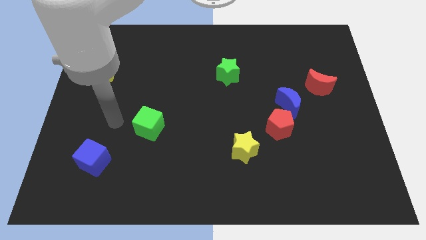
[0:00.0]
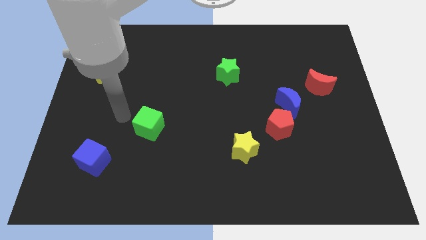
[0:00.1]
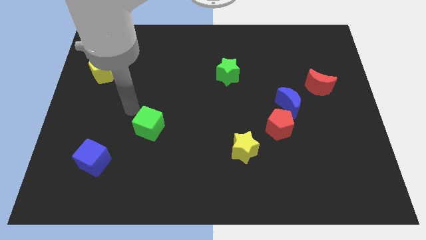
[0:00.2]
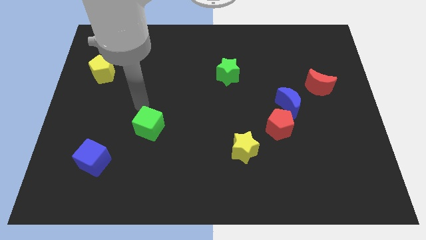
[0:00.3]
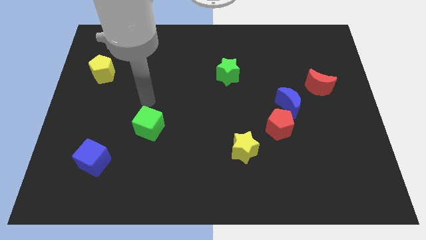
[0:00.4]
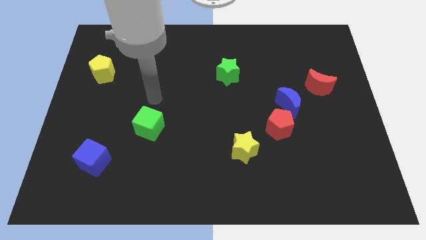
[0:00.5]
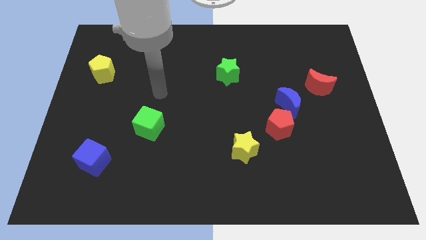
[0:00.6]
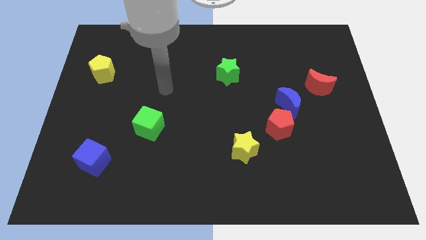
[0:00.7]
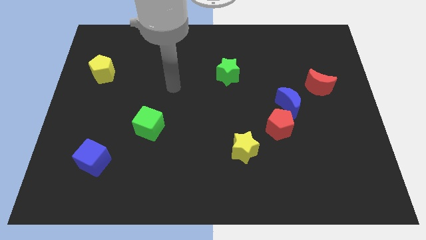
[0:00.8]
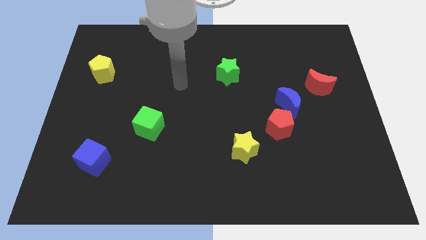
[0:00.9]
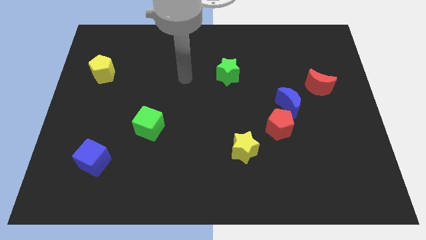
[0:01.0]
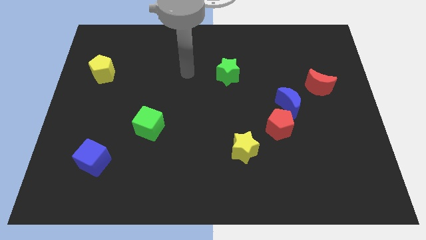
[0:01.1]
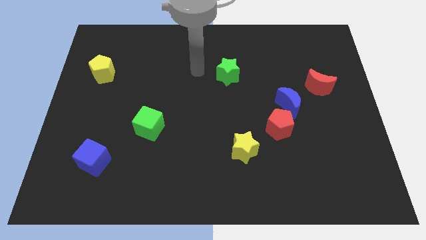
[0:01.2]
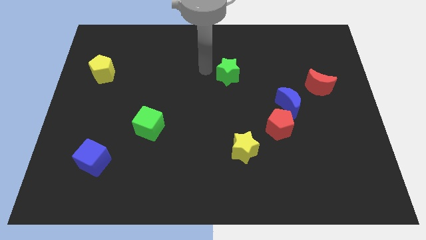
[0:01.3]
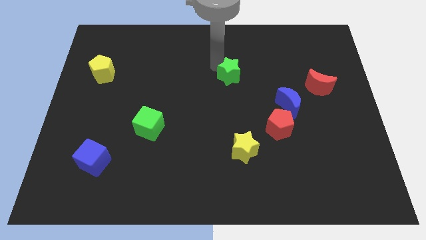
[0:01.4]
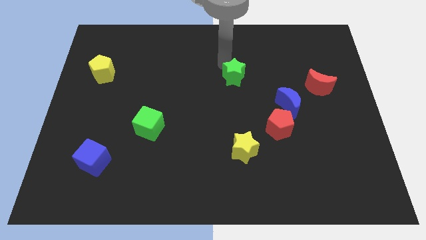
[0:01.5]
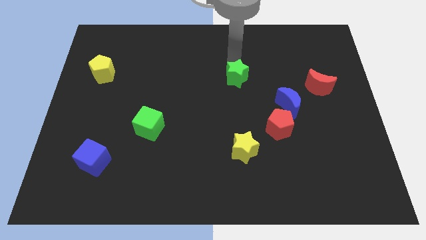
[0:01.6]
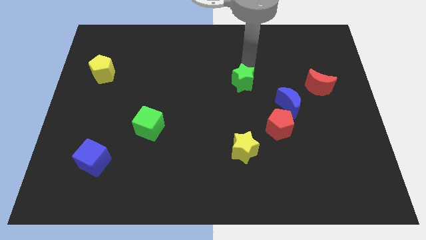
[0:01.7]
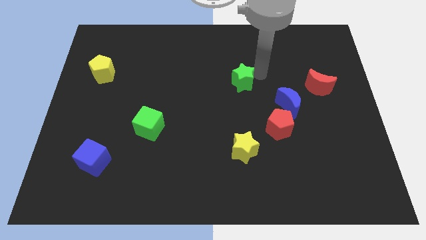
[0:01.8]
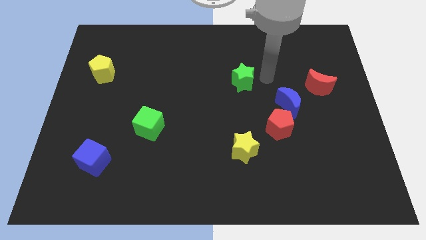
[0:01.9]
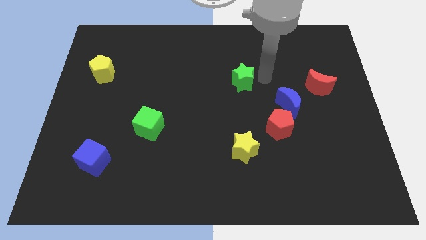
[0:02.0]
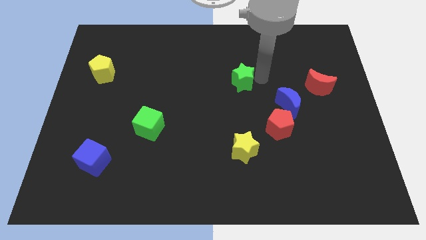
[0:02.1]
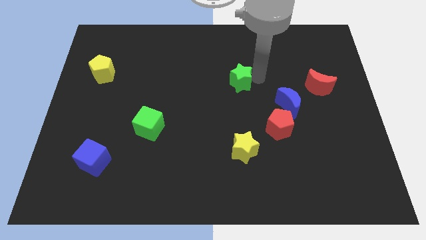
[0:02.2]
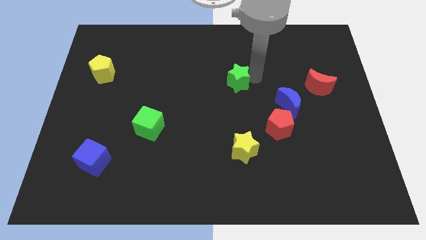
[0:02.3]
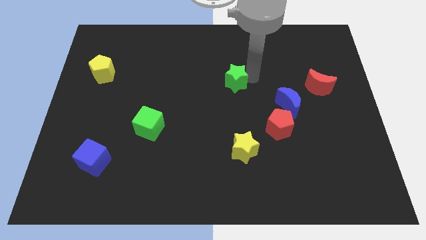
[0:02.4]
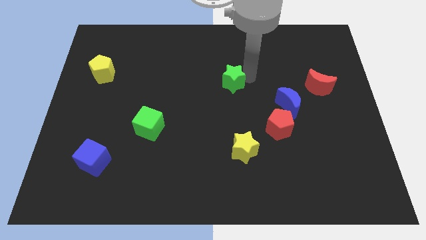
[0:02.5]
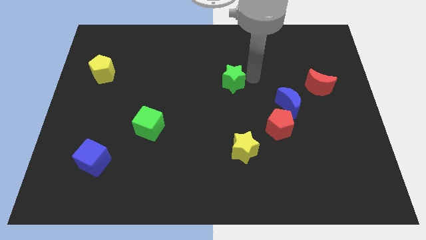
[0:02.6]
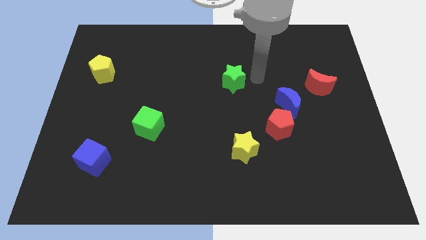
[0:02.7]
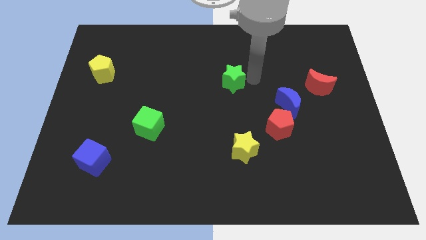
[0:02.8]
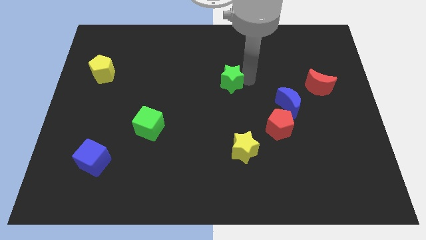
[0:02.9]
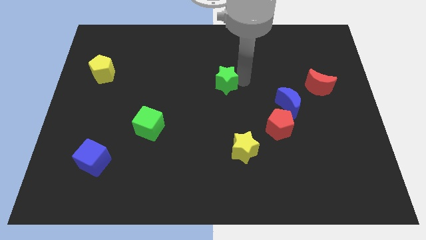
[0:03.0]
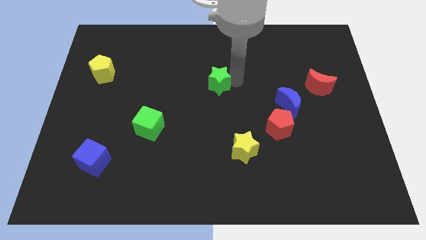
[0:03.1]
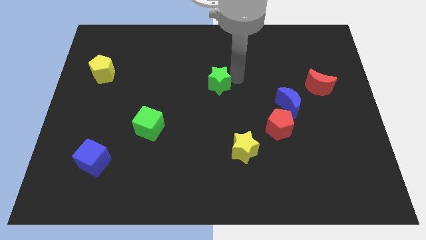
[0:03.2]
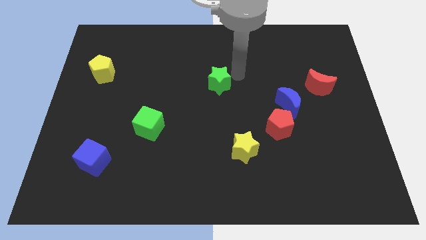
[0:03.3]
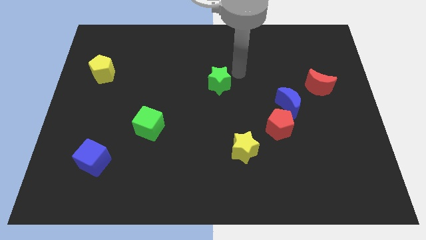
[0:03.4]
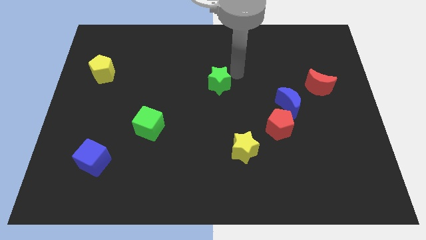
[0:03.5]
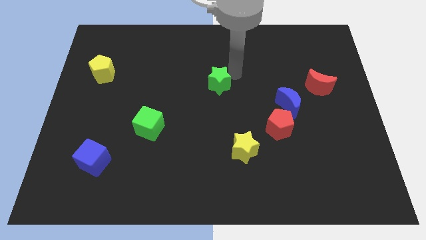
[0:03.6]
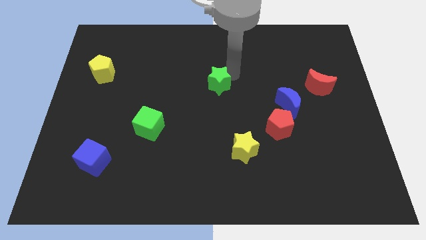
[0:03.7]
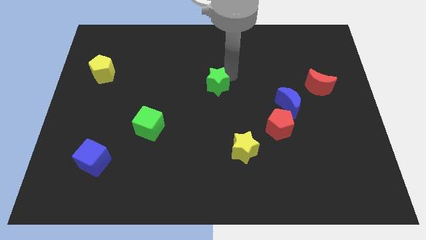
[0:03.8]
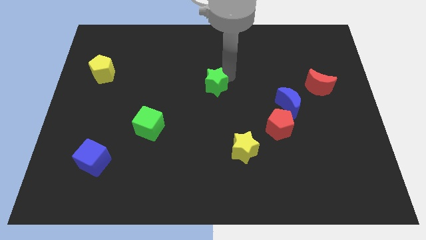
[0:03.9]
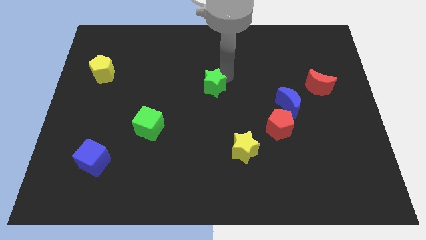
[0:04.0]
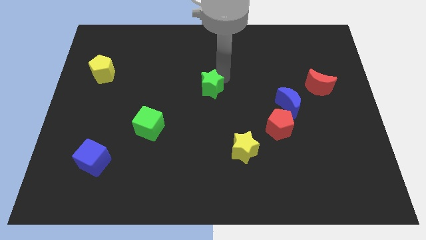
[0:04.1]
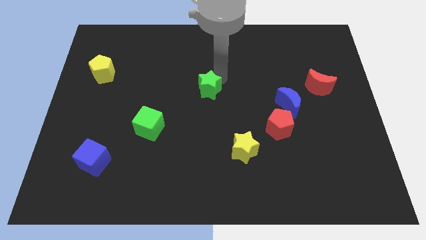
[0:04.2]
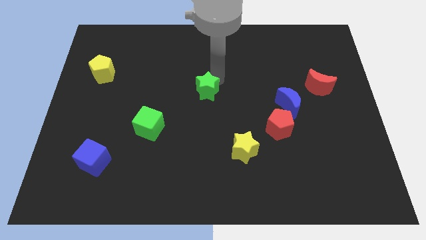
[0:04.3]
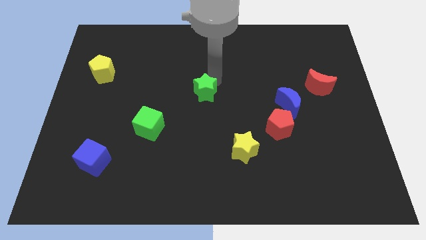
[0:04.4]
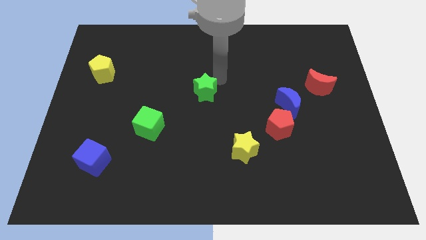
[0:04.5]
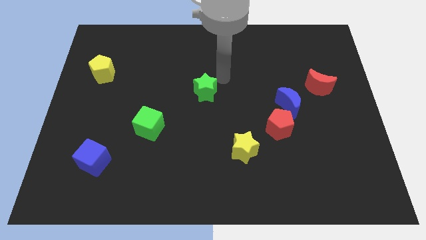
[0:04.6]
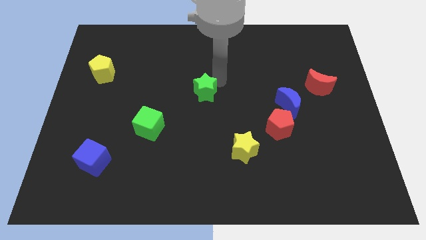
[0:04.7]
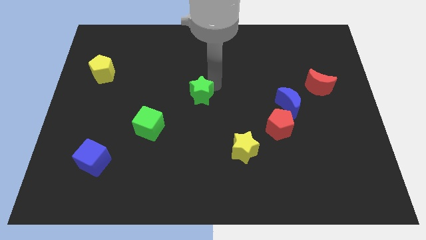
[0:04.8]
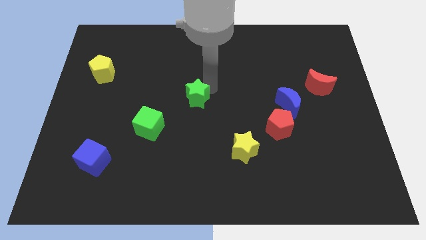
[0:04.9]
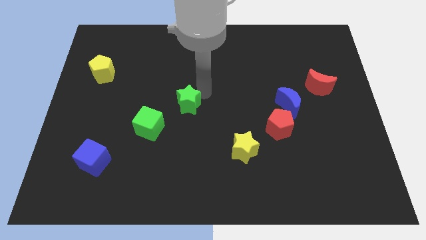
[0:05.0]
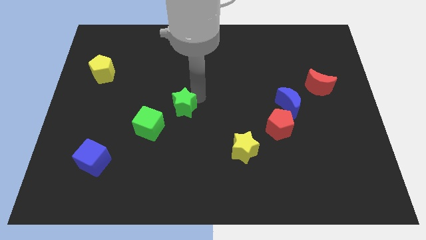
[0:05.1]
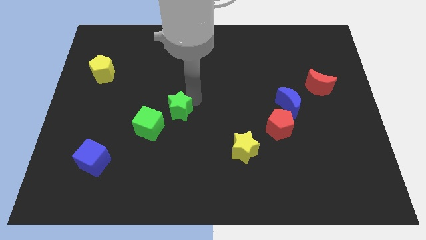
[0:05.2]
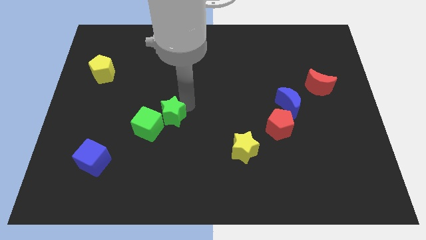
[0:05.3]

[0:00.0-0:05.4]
move the green star towards the green cube

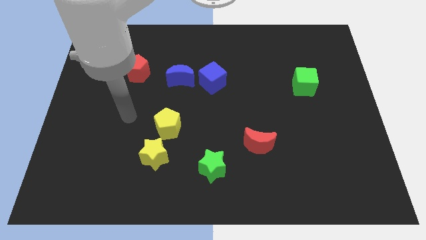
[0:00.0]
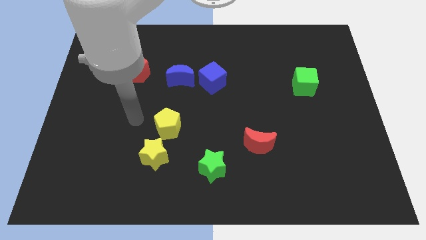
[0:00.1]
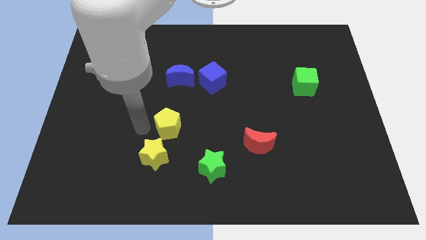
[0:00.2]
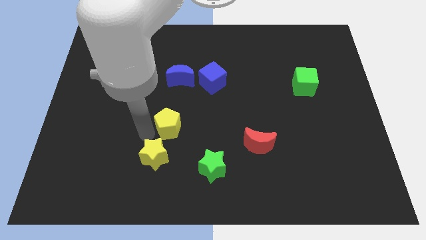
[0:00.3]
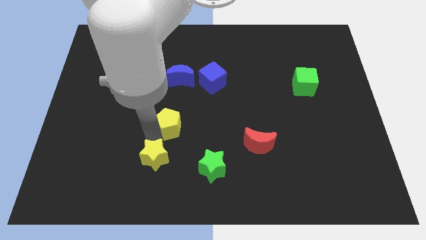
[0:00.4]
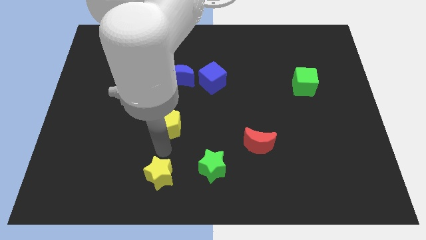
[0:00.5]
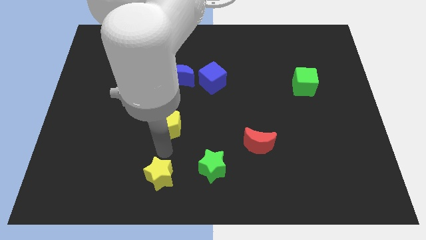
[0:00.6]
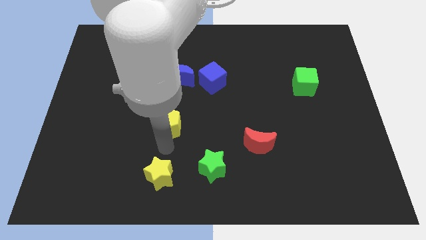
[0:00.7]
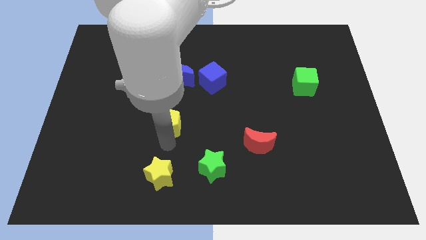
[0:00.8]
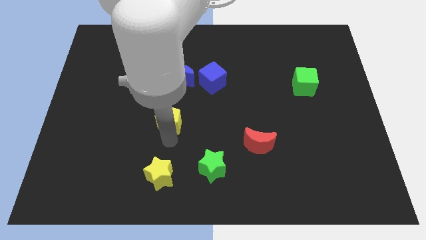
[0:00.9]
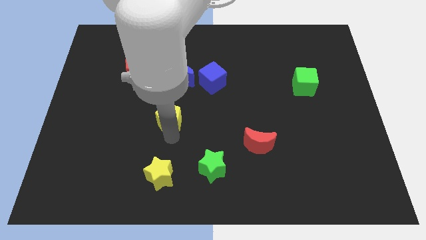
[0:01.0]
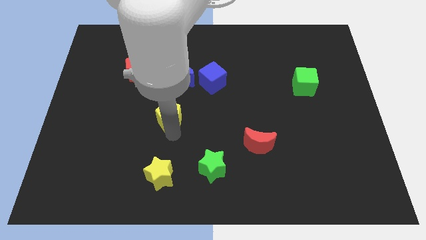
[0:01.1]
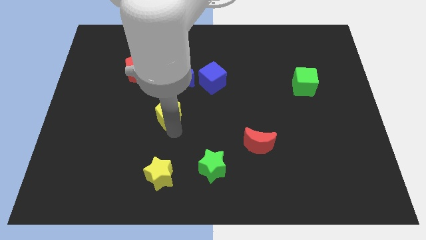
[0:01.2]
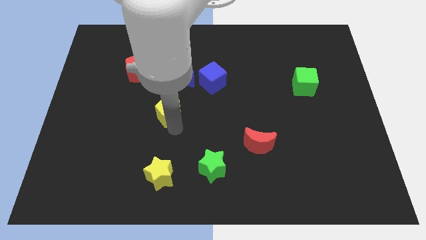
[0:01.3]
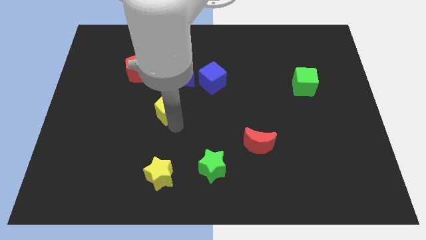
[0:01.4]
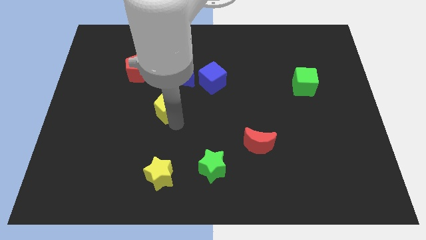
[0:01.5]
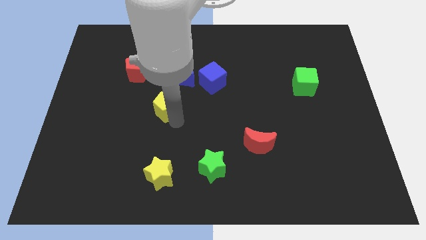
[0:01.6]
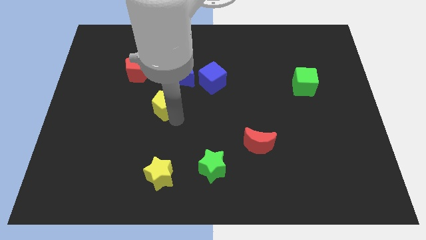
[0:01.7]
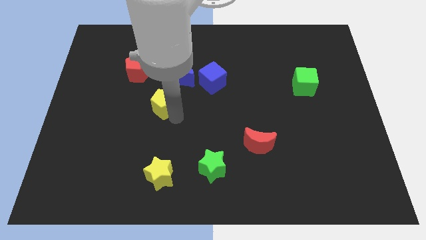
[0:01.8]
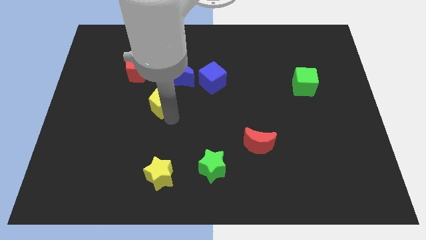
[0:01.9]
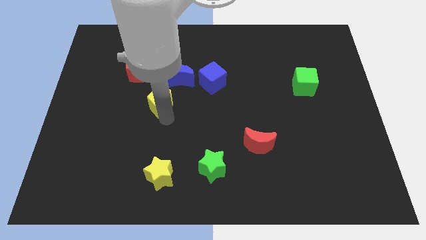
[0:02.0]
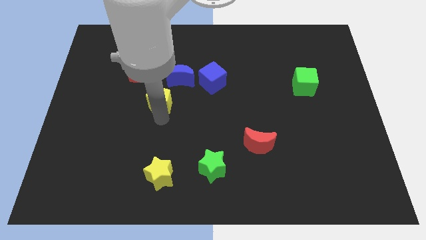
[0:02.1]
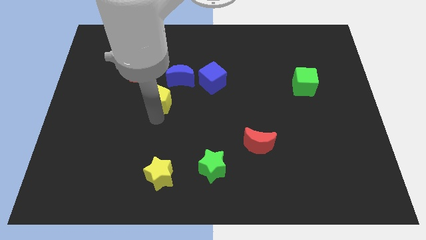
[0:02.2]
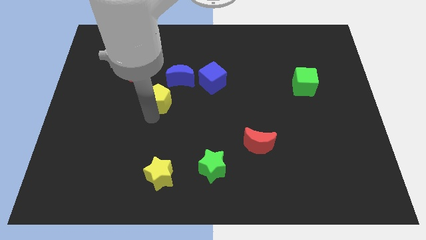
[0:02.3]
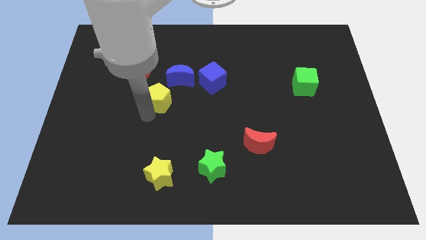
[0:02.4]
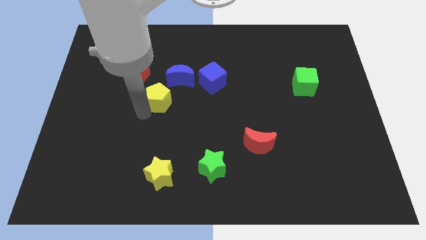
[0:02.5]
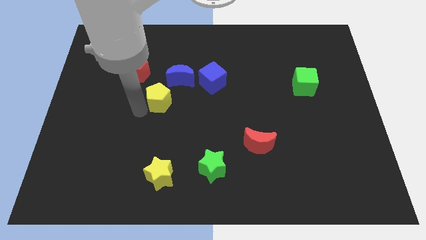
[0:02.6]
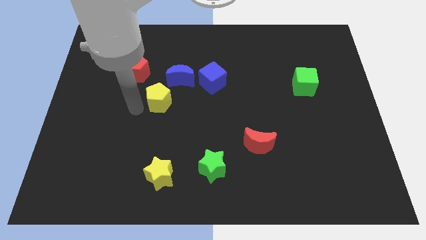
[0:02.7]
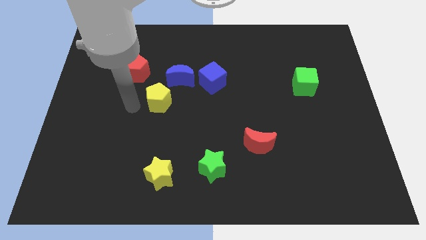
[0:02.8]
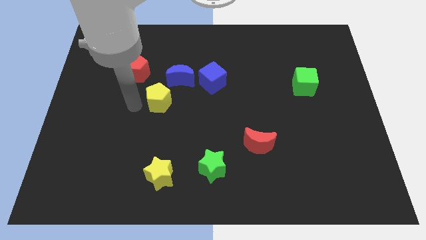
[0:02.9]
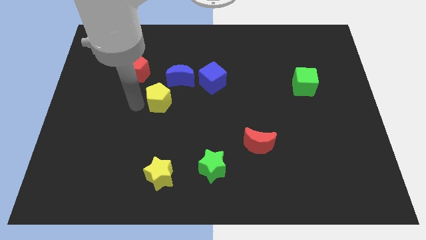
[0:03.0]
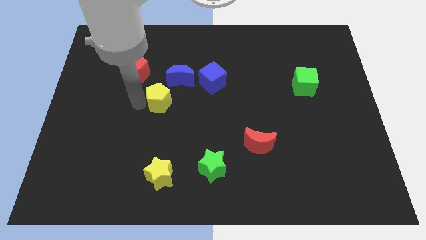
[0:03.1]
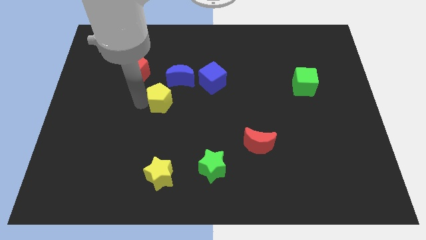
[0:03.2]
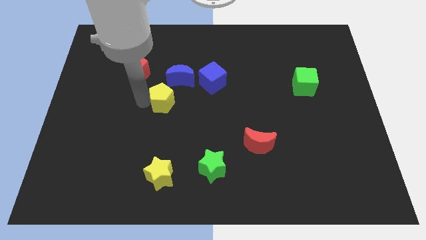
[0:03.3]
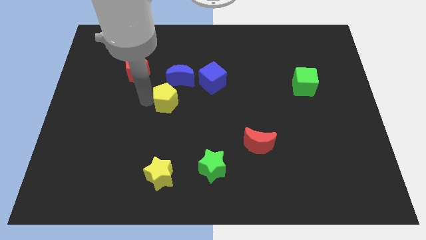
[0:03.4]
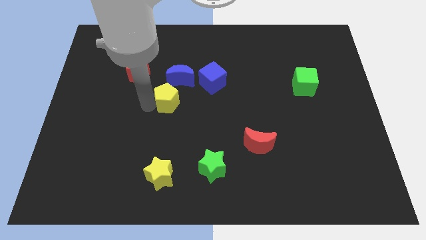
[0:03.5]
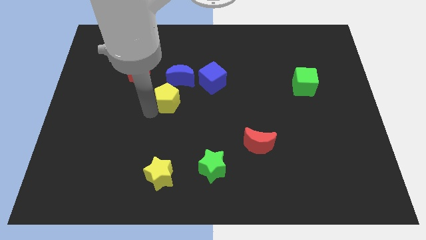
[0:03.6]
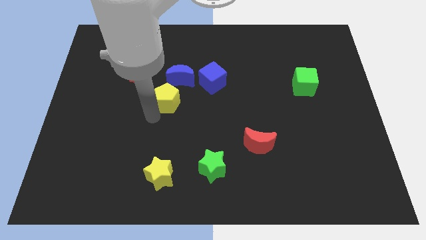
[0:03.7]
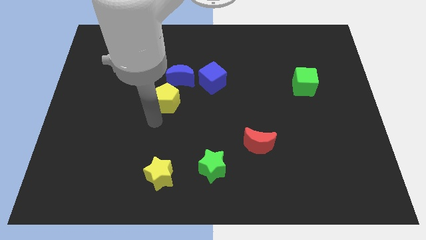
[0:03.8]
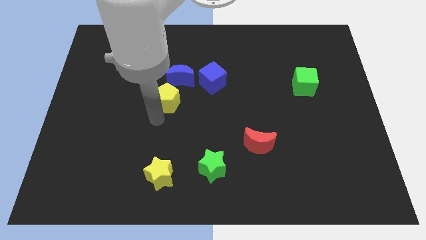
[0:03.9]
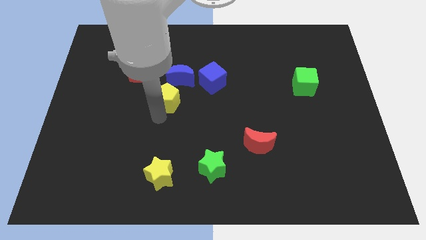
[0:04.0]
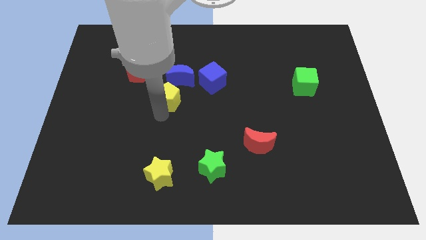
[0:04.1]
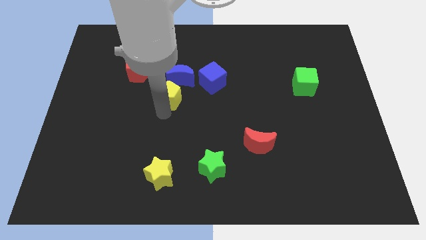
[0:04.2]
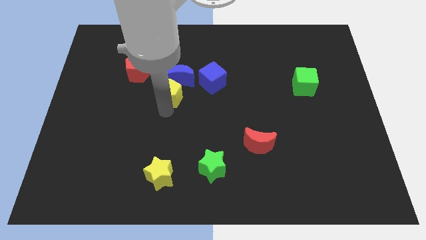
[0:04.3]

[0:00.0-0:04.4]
push the yellow pentagon close to the blue moon
